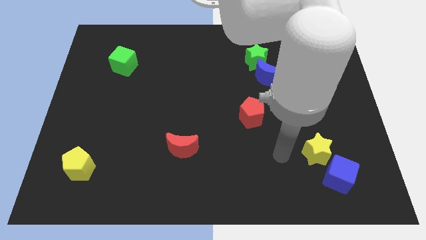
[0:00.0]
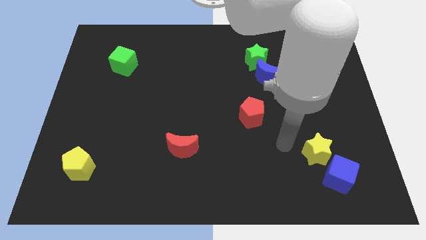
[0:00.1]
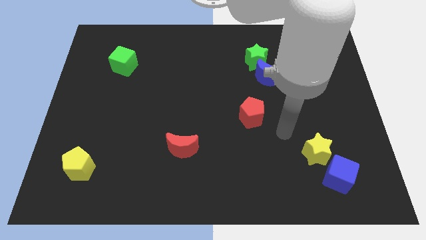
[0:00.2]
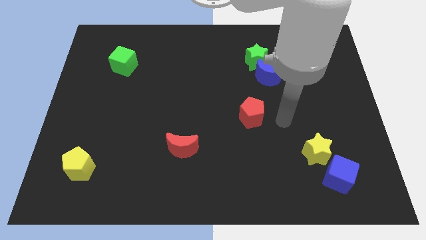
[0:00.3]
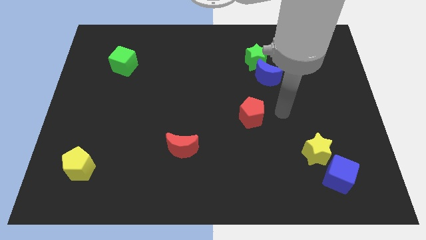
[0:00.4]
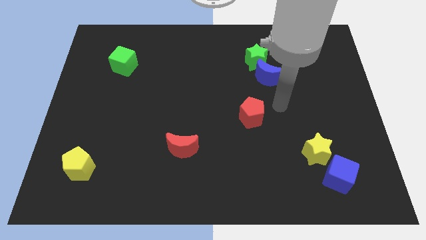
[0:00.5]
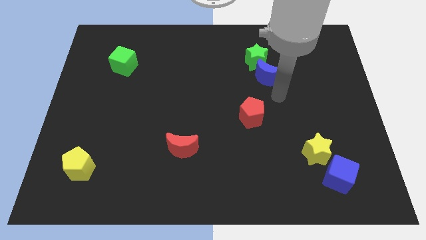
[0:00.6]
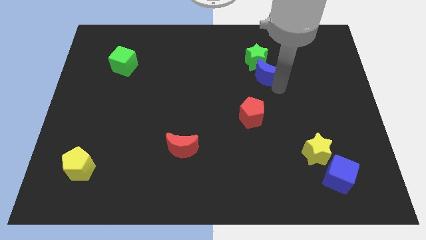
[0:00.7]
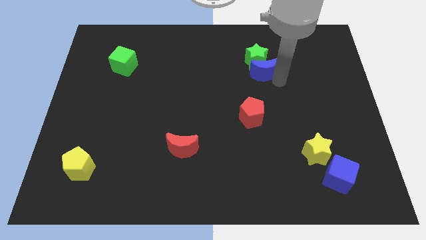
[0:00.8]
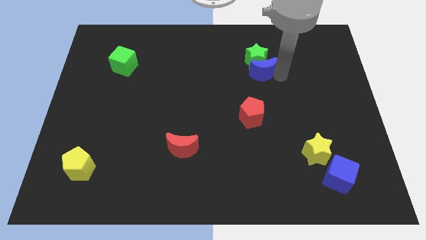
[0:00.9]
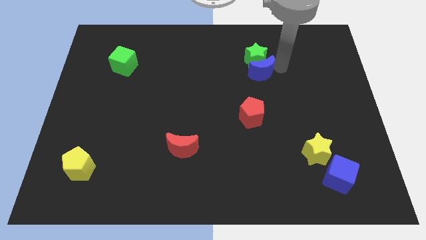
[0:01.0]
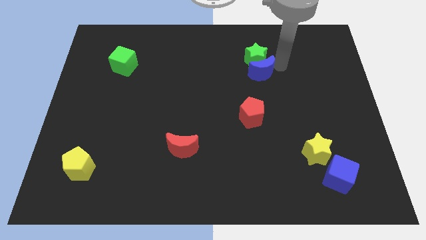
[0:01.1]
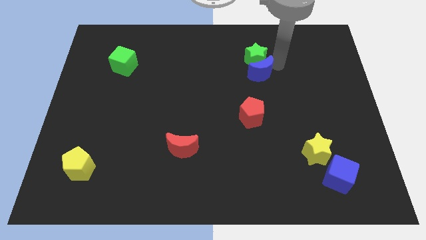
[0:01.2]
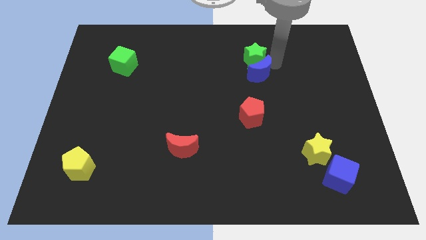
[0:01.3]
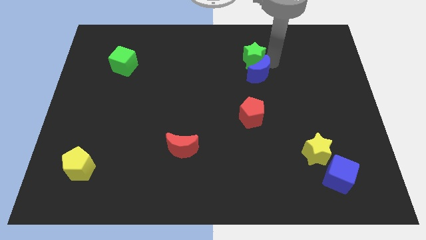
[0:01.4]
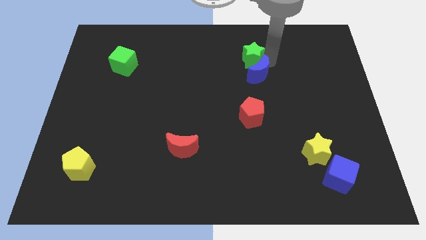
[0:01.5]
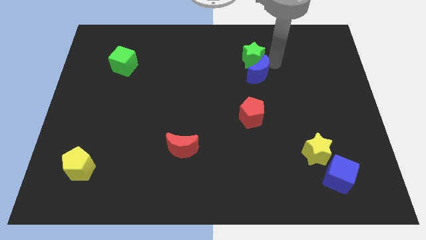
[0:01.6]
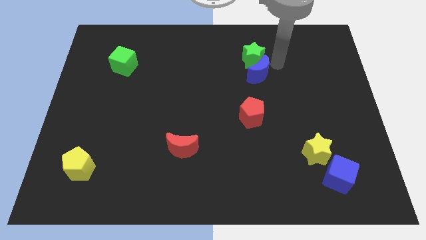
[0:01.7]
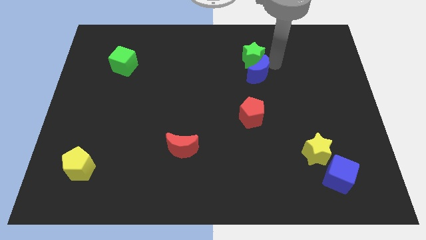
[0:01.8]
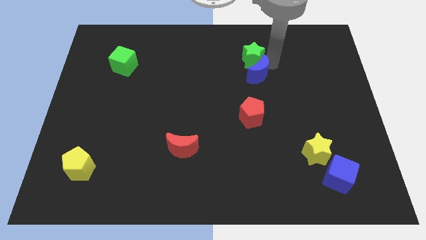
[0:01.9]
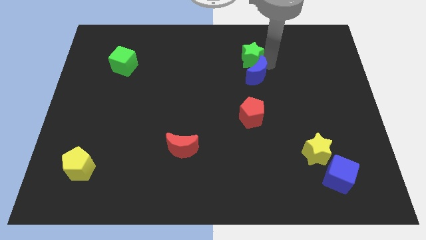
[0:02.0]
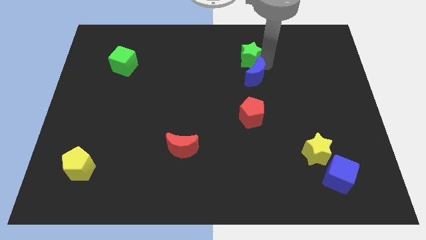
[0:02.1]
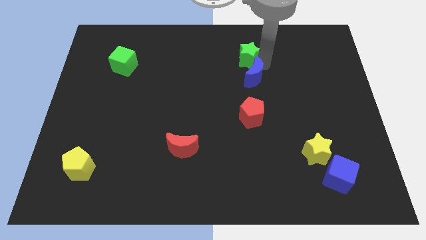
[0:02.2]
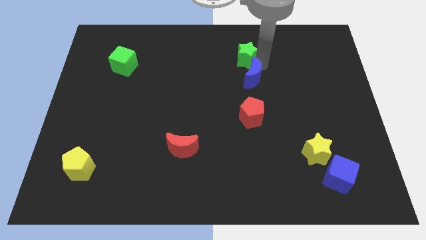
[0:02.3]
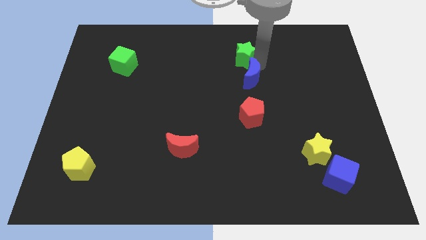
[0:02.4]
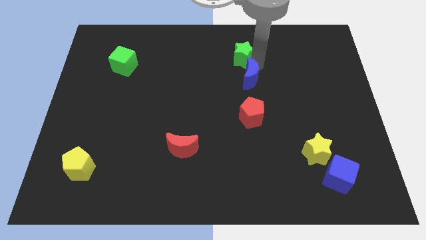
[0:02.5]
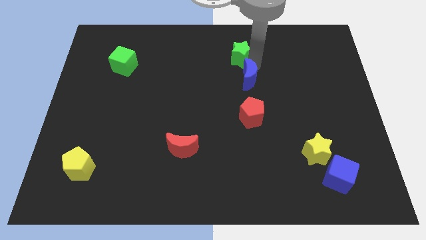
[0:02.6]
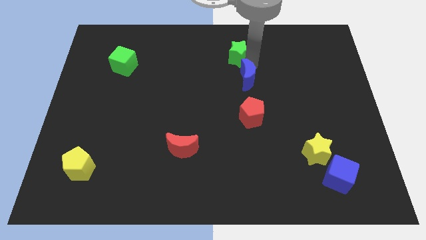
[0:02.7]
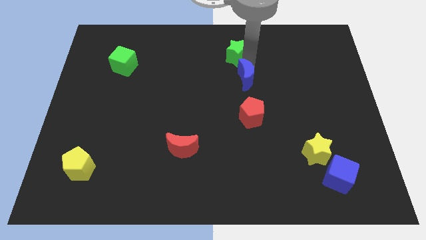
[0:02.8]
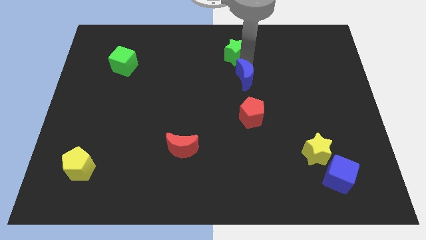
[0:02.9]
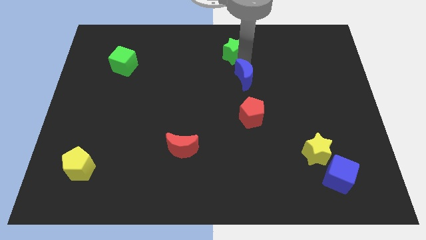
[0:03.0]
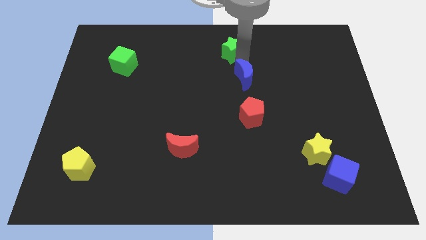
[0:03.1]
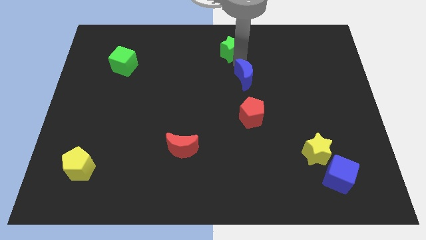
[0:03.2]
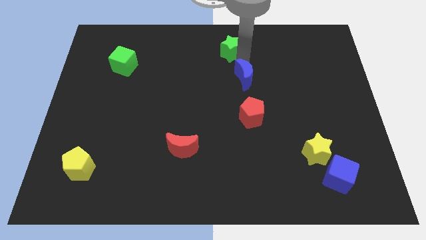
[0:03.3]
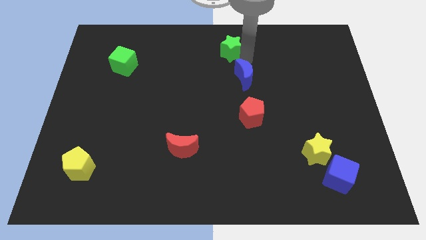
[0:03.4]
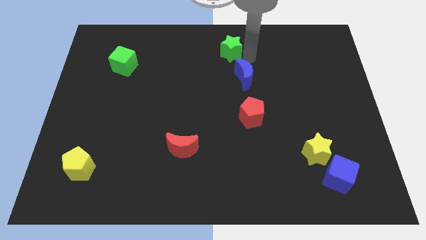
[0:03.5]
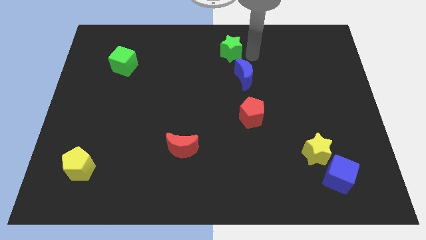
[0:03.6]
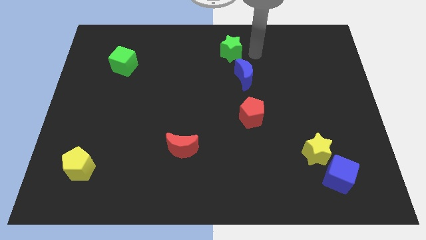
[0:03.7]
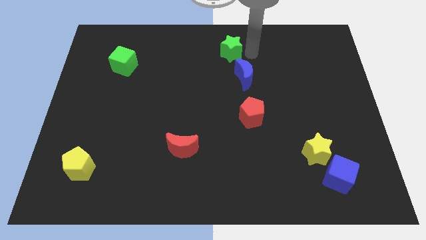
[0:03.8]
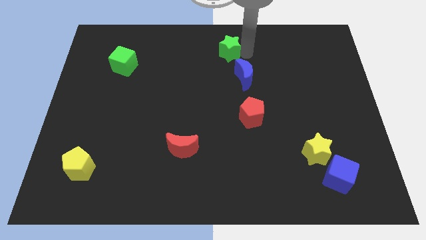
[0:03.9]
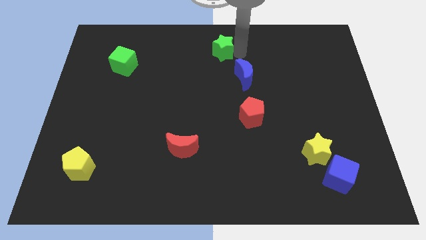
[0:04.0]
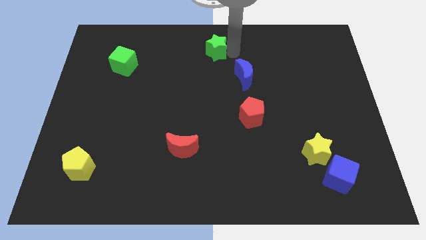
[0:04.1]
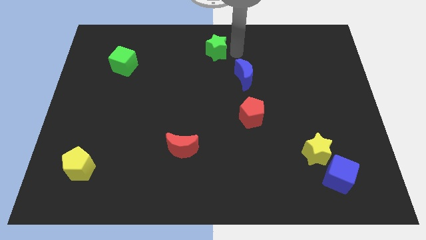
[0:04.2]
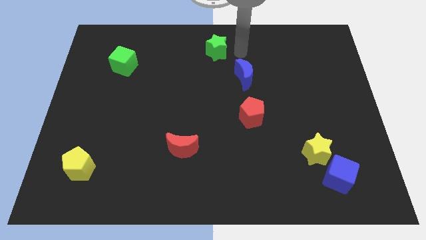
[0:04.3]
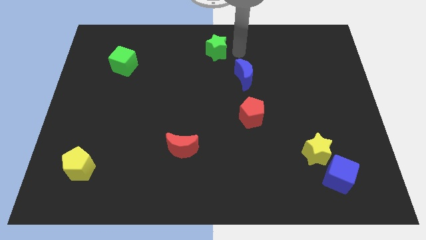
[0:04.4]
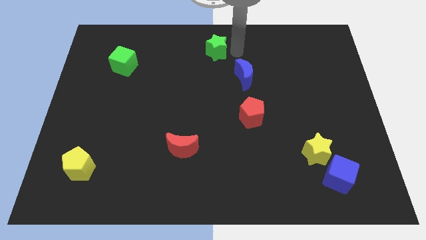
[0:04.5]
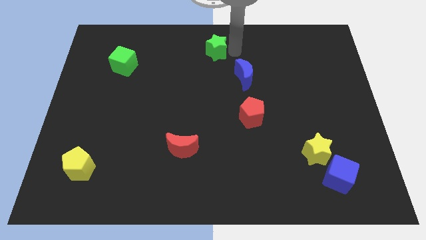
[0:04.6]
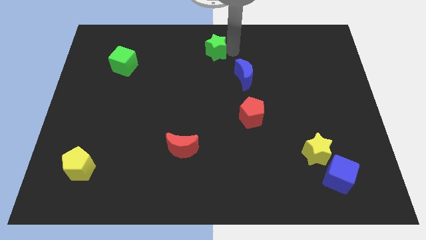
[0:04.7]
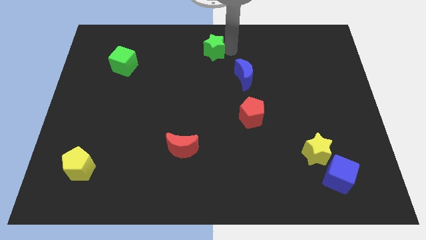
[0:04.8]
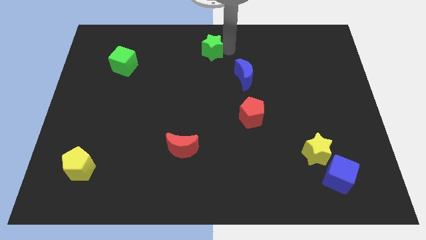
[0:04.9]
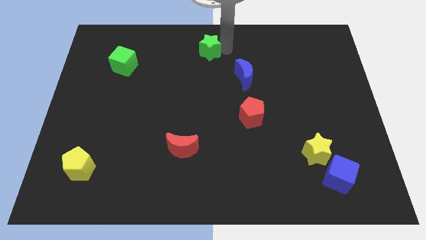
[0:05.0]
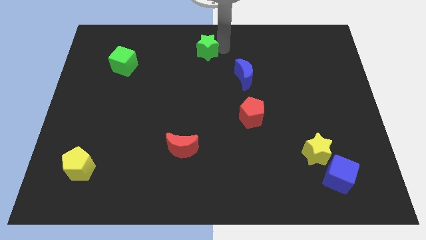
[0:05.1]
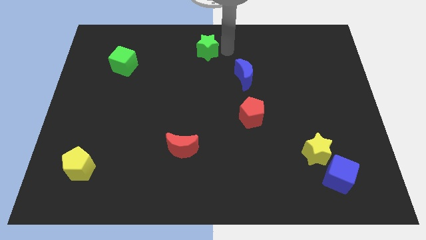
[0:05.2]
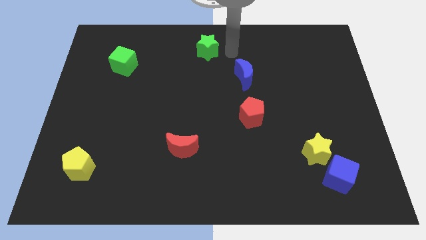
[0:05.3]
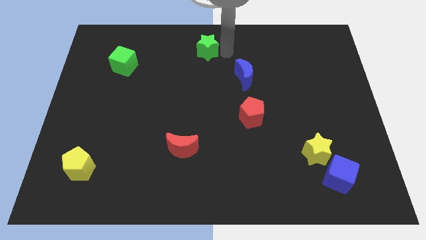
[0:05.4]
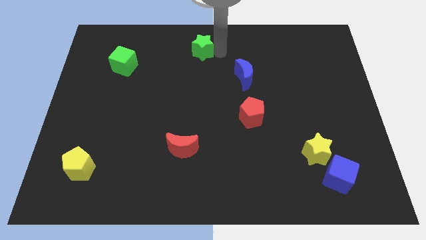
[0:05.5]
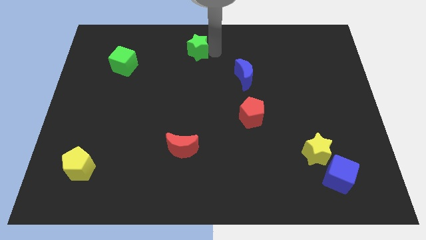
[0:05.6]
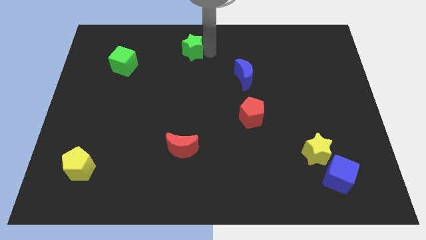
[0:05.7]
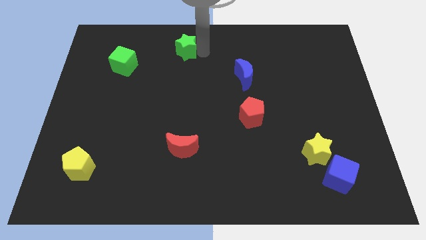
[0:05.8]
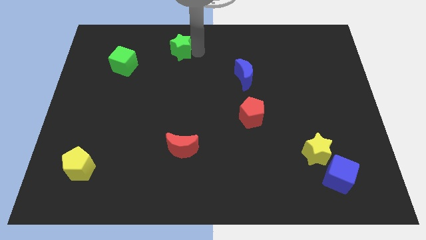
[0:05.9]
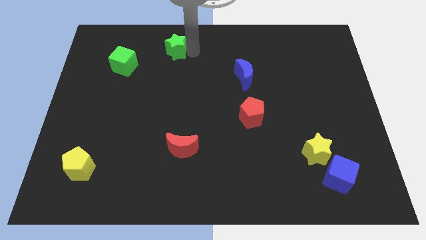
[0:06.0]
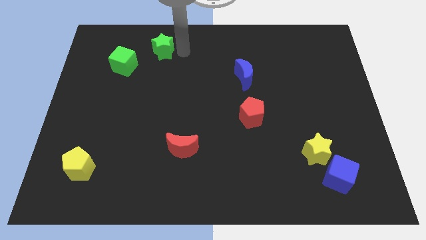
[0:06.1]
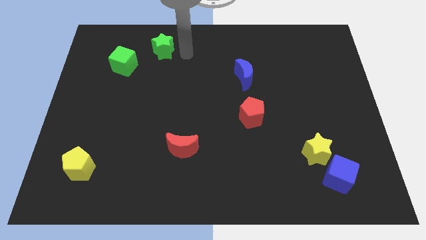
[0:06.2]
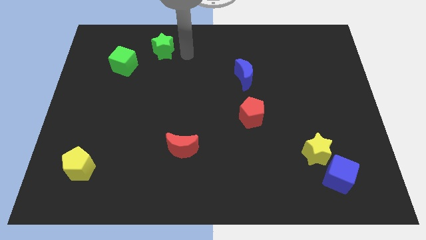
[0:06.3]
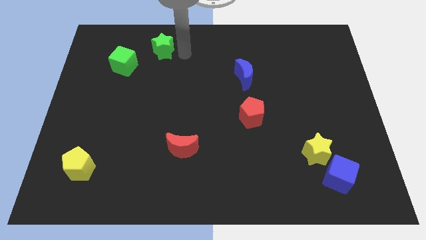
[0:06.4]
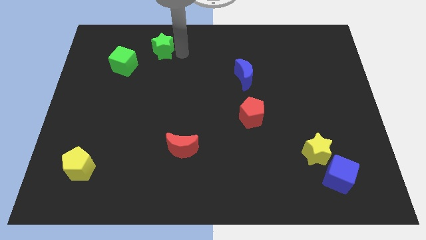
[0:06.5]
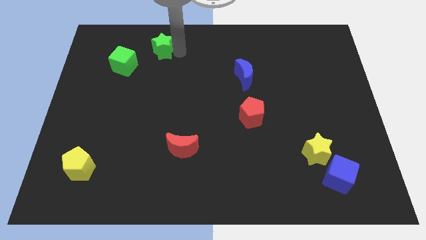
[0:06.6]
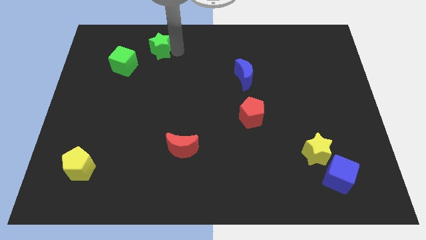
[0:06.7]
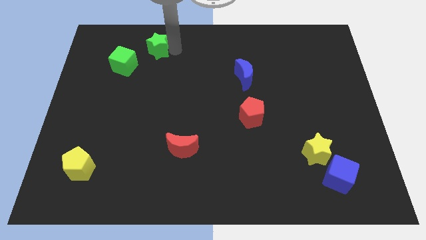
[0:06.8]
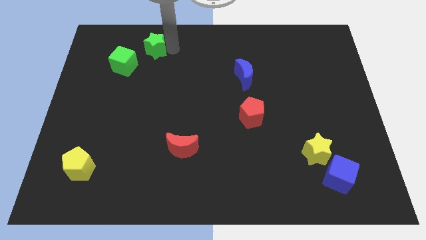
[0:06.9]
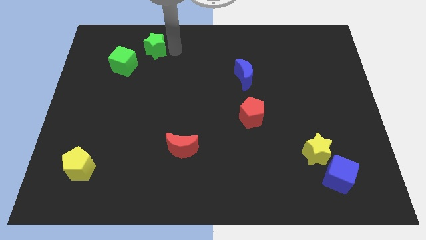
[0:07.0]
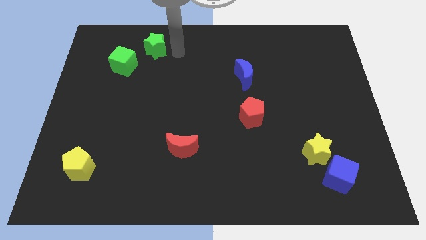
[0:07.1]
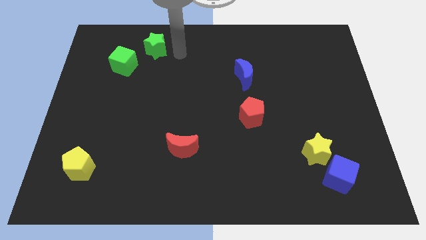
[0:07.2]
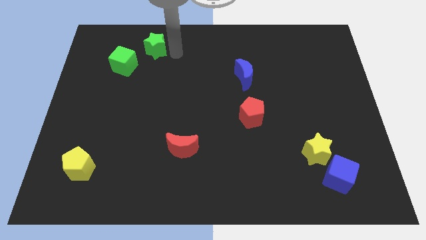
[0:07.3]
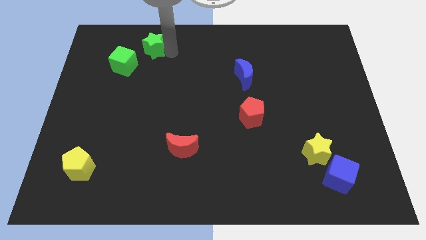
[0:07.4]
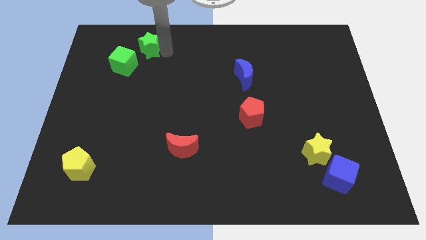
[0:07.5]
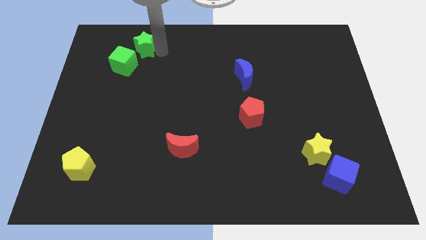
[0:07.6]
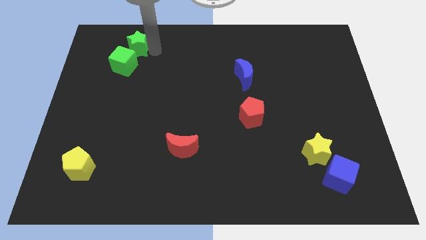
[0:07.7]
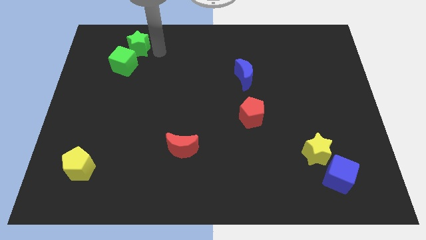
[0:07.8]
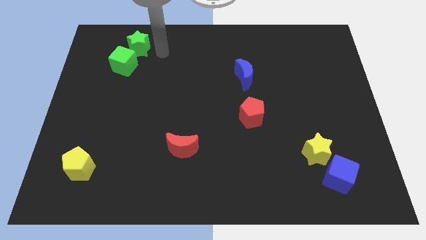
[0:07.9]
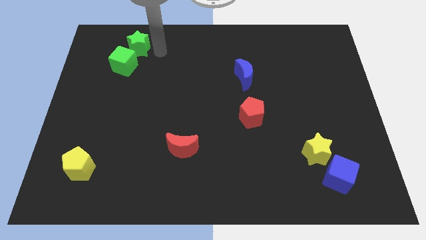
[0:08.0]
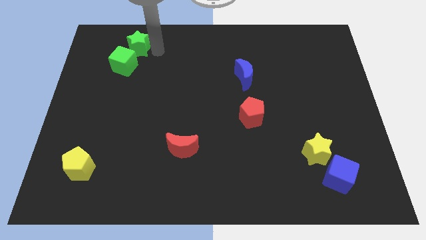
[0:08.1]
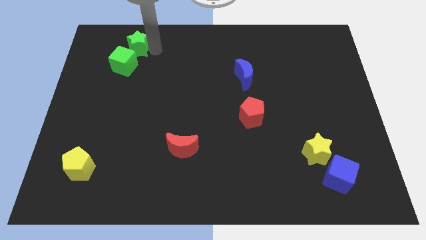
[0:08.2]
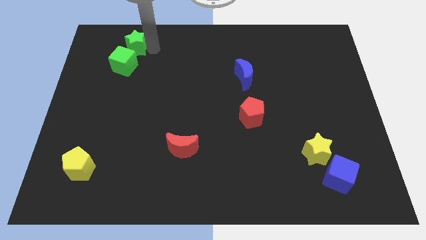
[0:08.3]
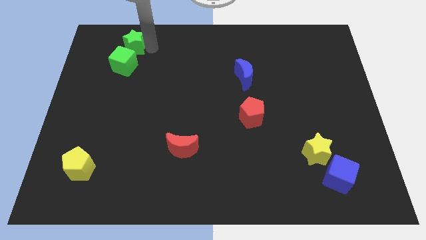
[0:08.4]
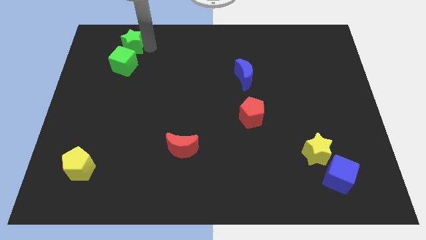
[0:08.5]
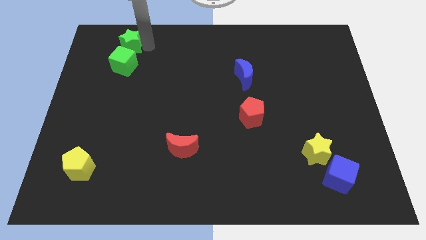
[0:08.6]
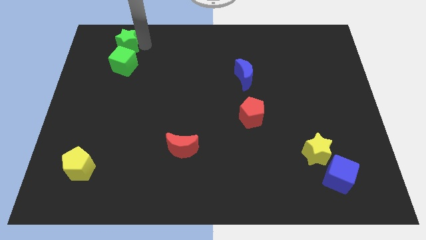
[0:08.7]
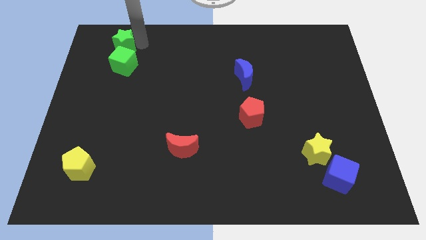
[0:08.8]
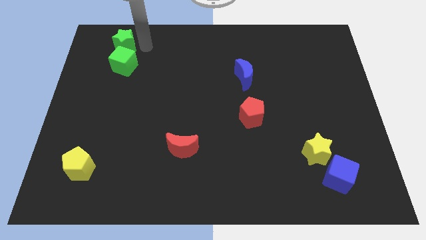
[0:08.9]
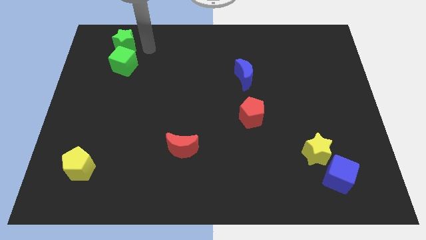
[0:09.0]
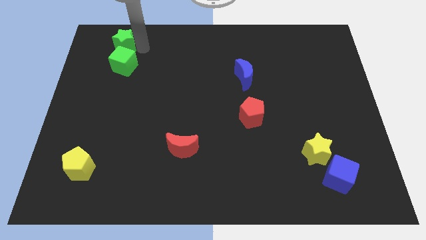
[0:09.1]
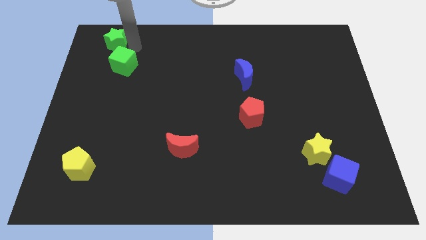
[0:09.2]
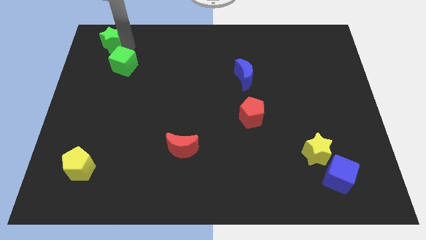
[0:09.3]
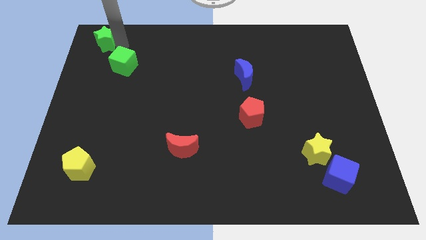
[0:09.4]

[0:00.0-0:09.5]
move the green star to the top left
